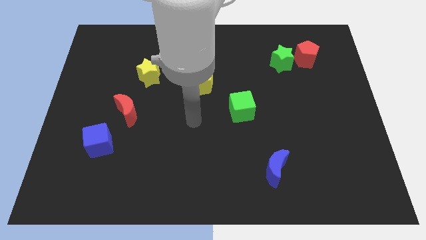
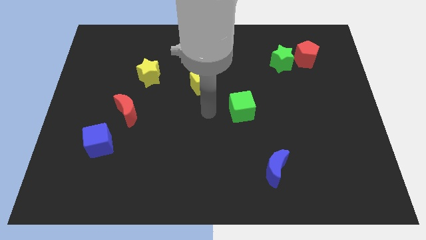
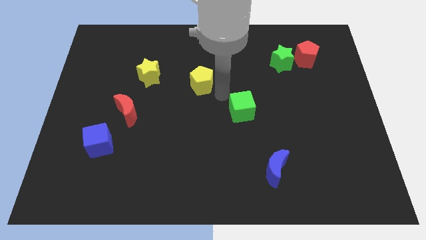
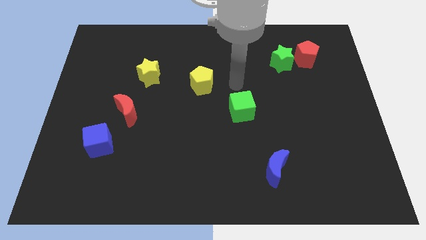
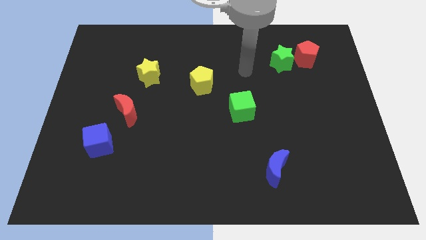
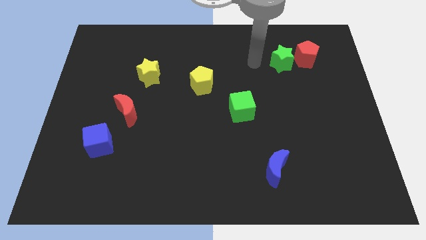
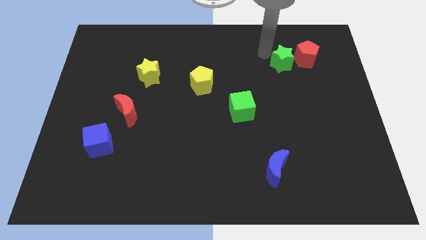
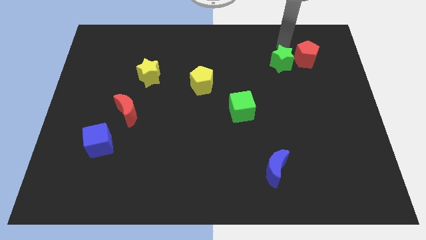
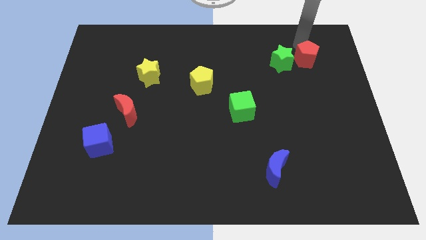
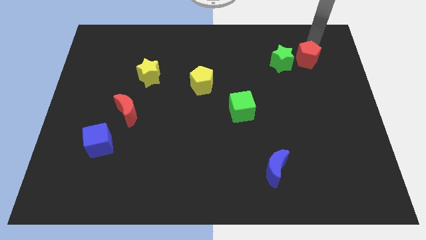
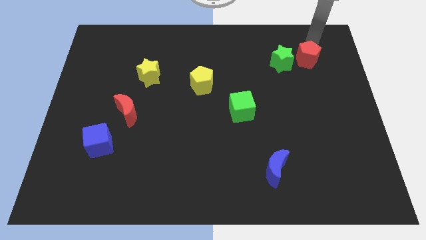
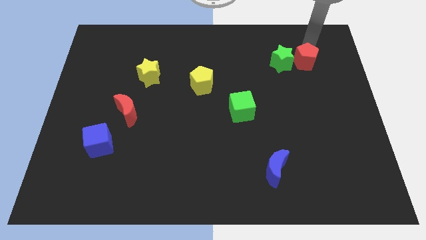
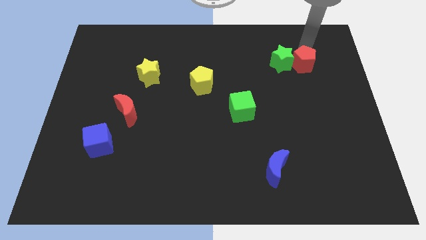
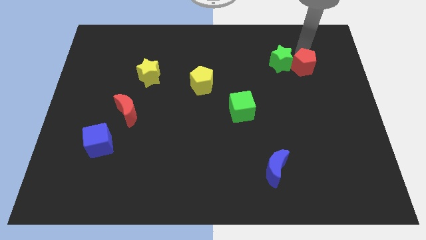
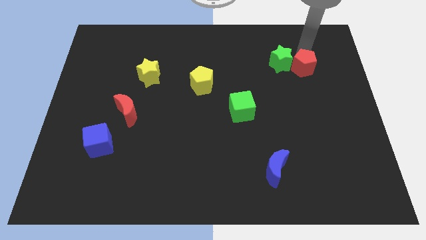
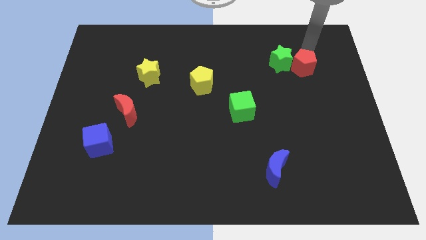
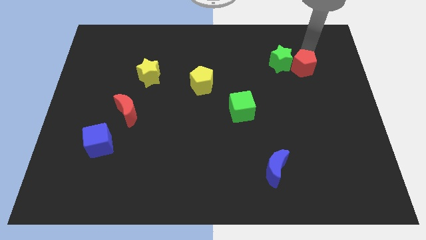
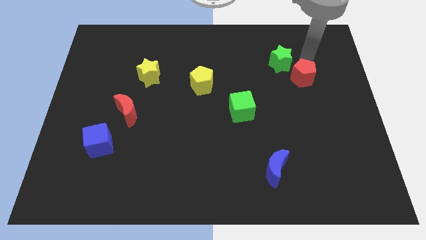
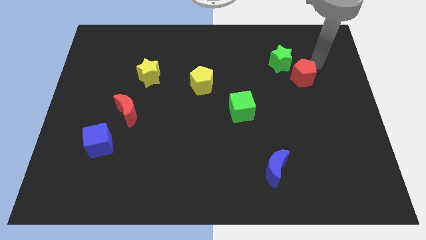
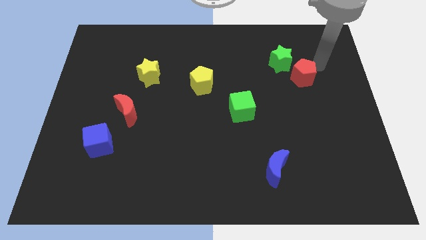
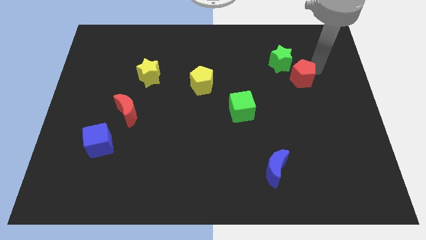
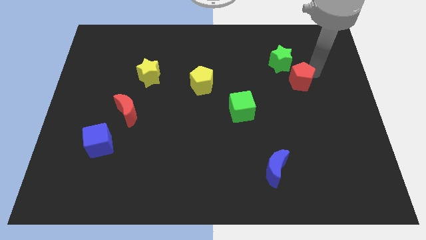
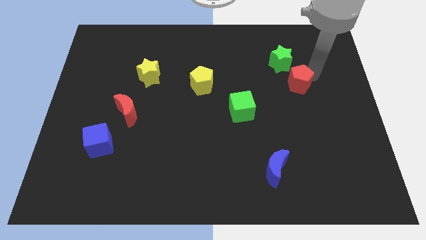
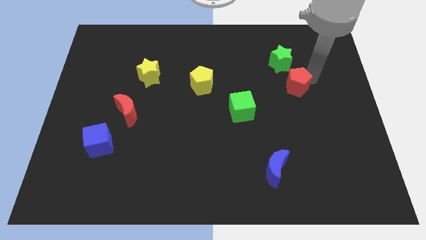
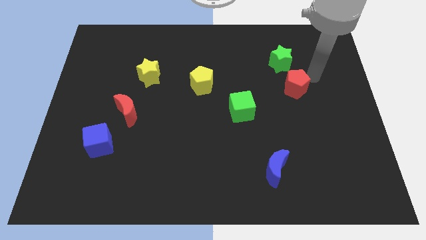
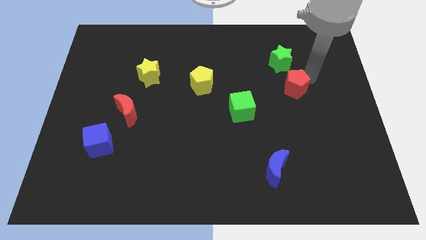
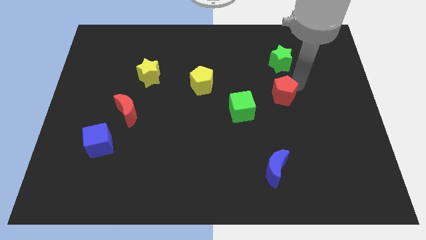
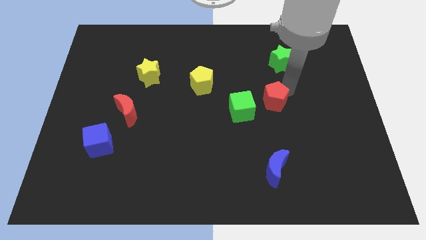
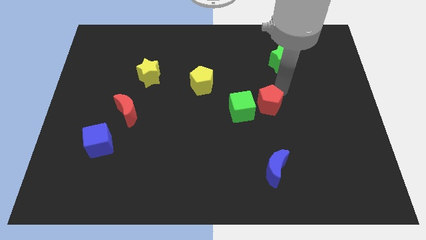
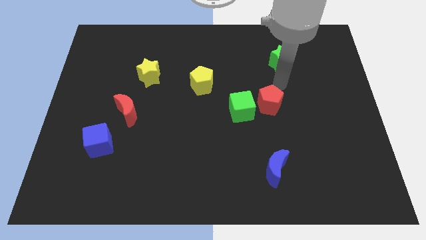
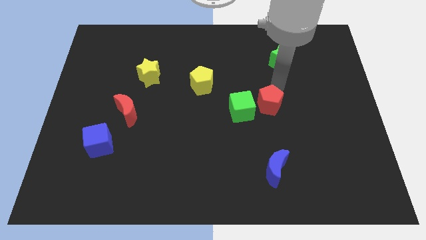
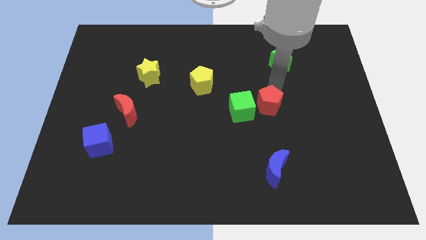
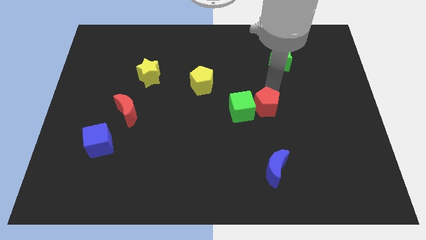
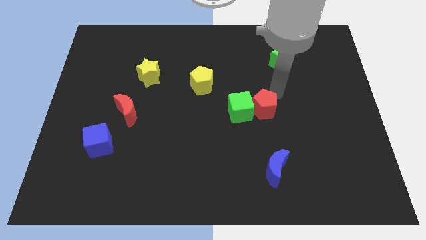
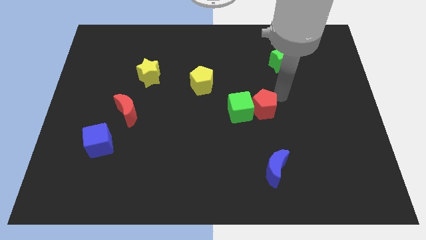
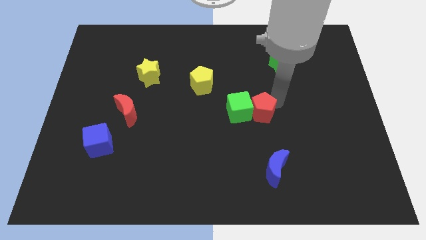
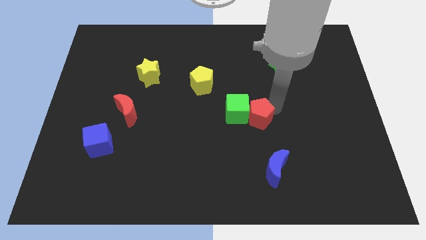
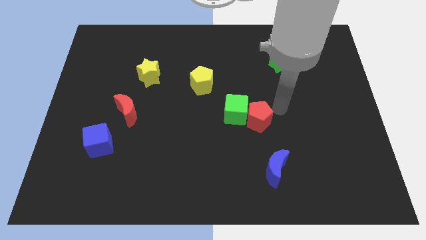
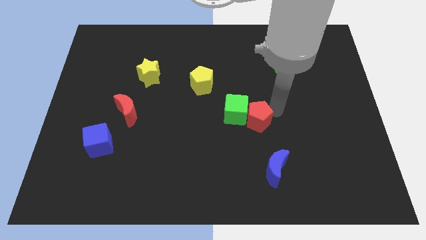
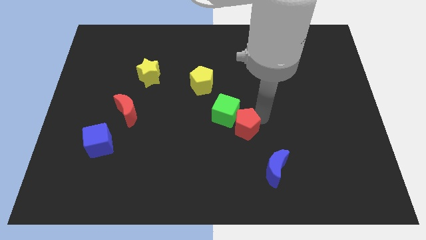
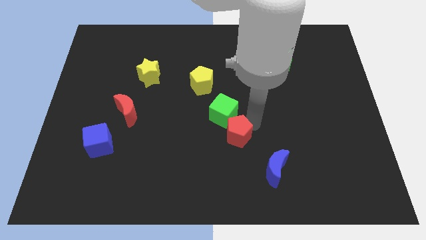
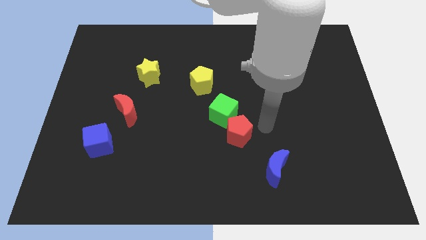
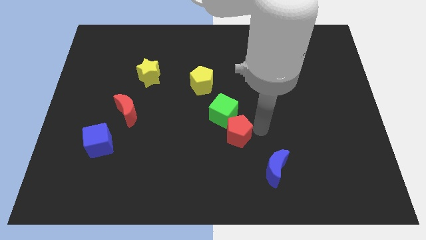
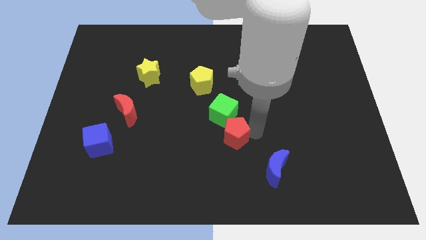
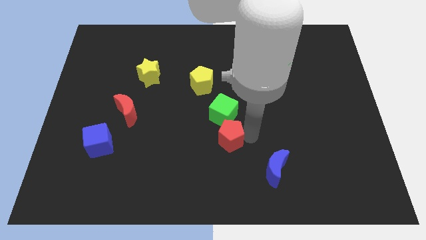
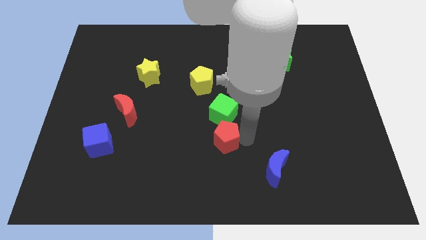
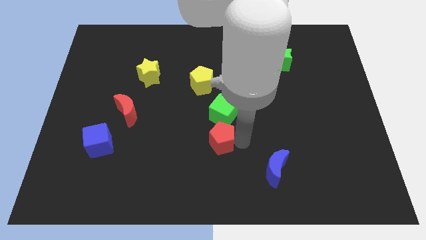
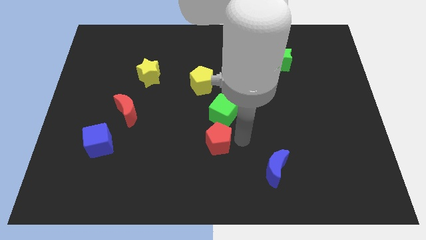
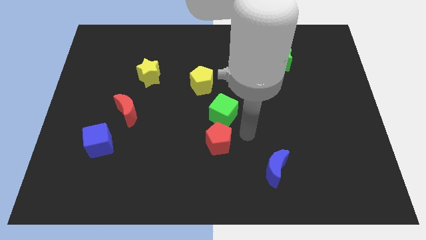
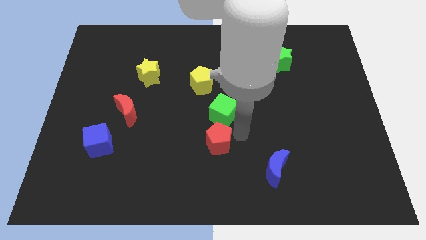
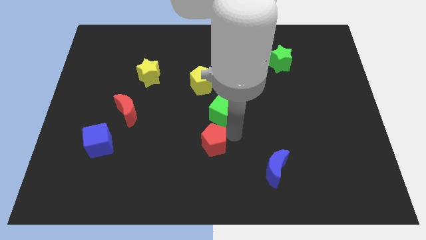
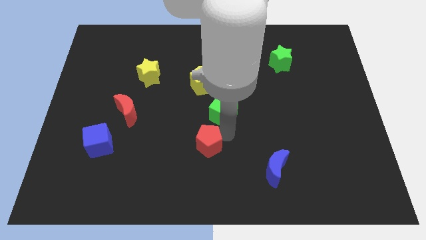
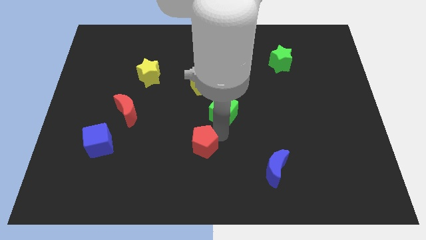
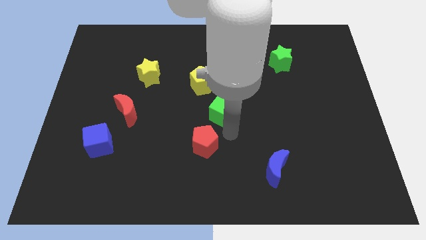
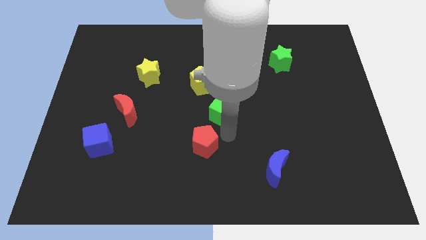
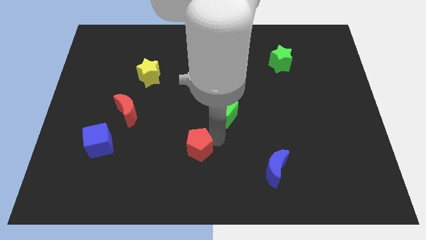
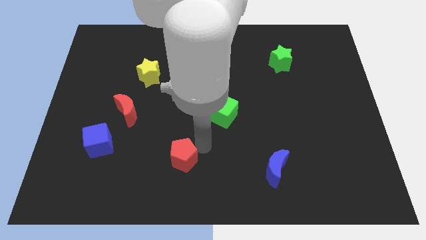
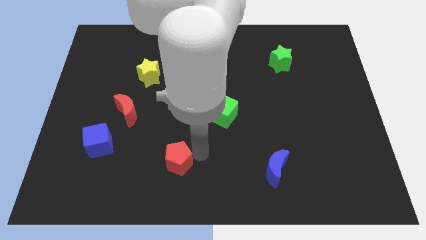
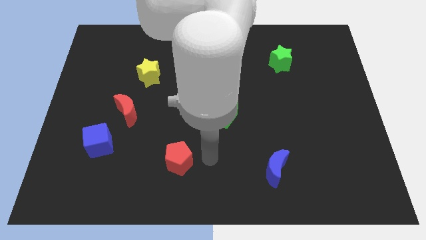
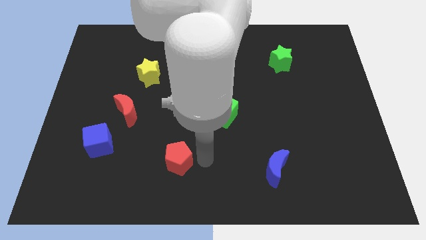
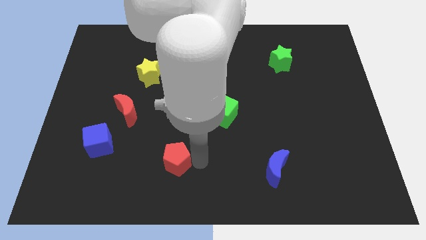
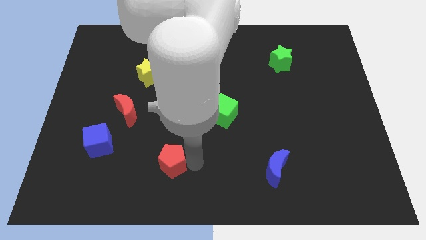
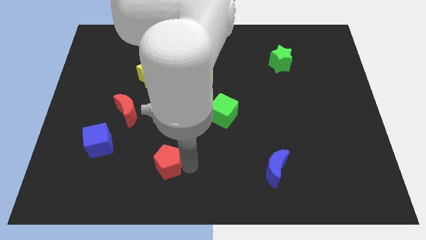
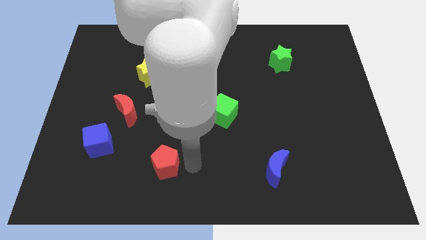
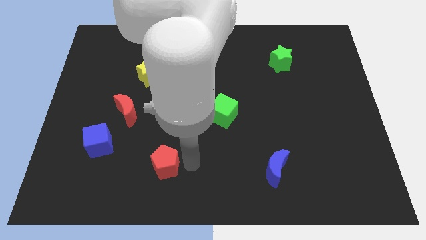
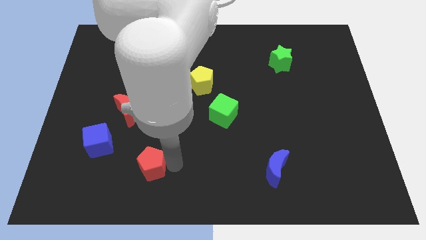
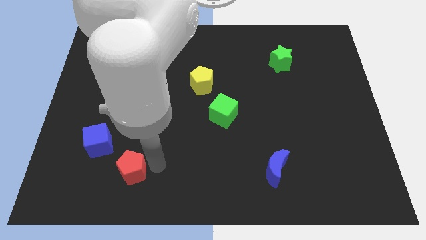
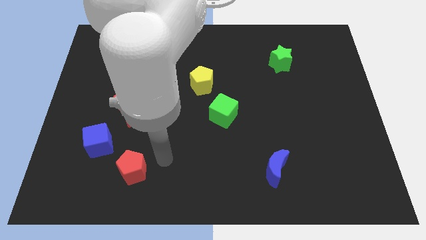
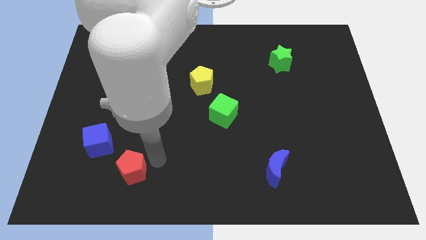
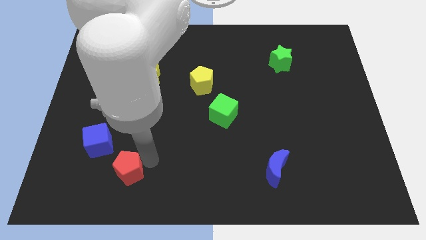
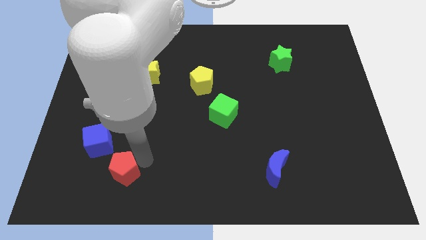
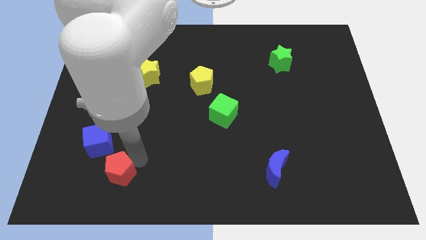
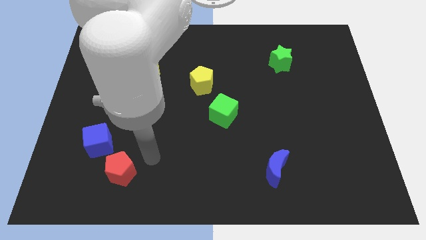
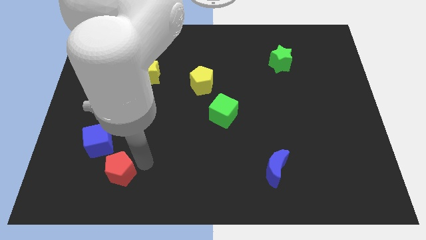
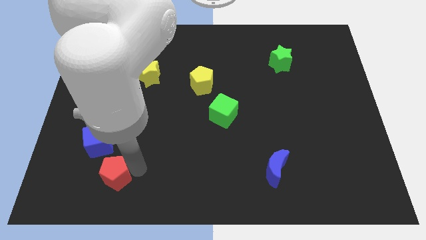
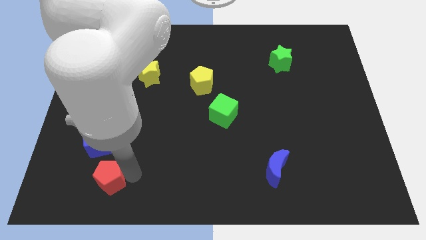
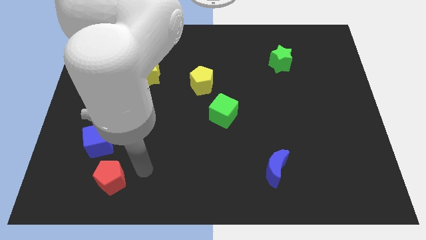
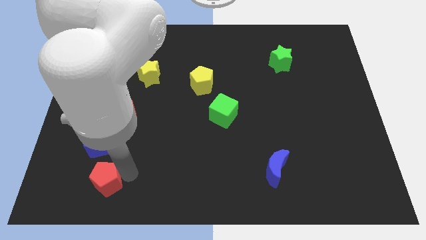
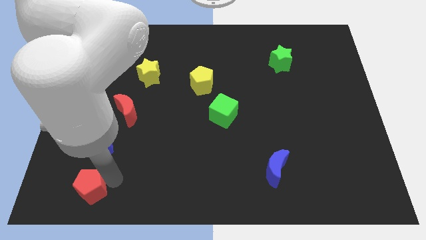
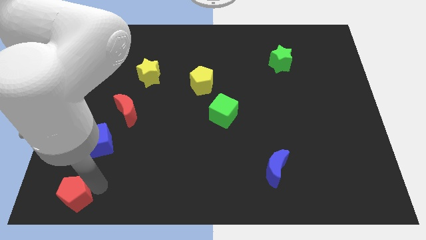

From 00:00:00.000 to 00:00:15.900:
push the red pentagon to the bottom left
